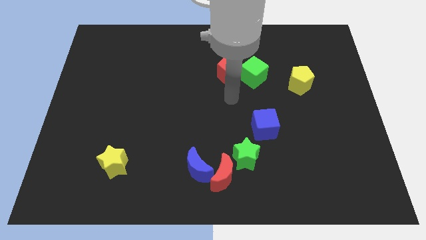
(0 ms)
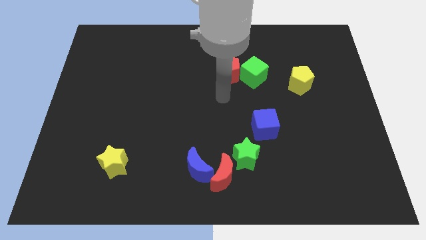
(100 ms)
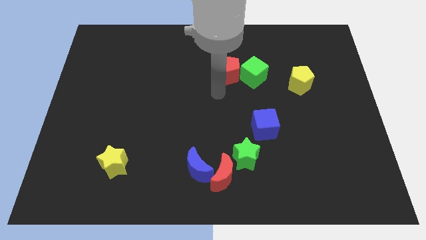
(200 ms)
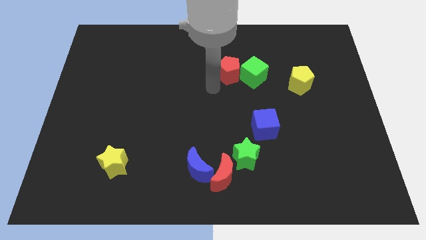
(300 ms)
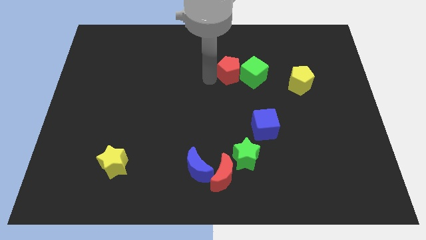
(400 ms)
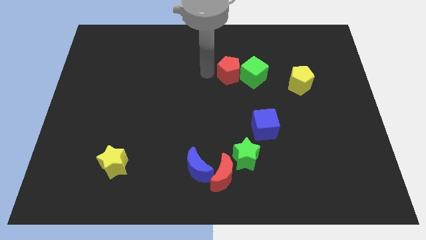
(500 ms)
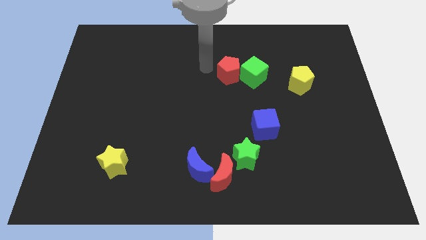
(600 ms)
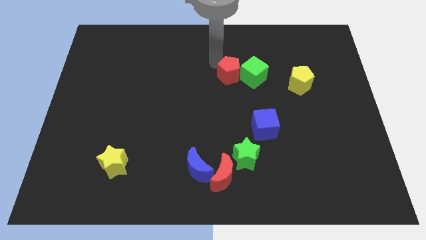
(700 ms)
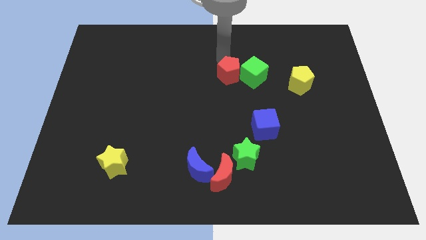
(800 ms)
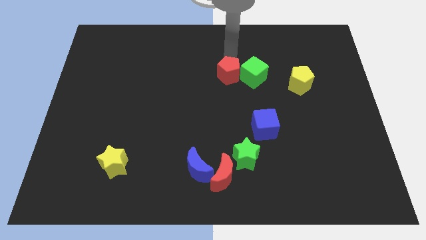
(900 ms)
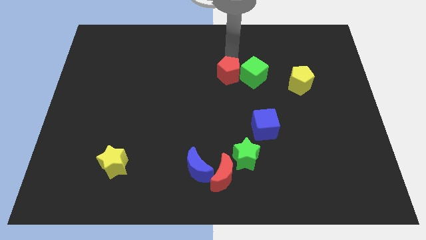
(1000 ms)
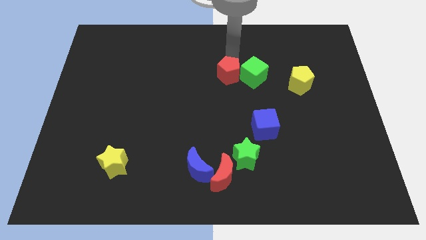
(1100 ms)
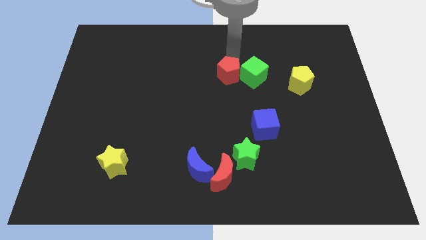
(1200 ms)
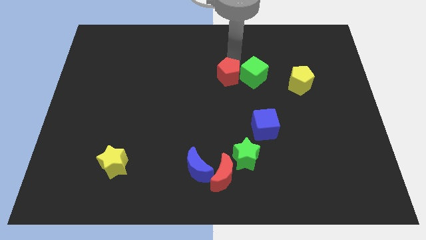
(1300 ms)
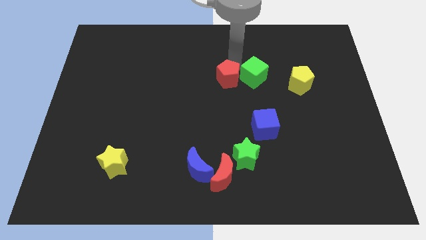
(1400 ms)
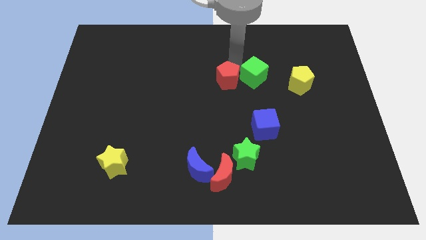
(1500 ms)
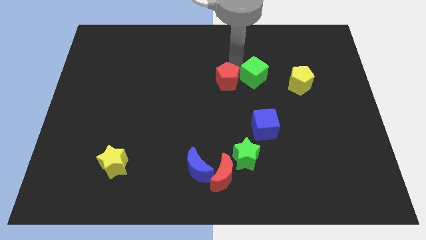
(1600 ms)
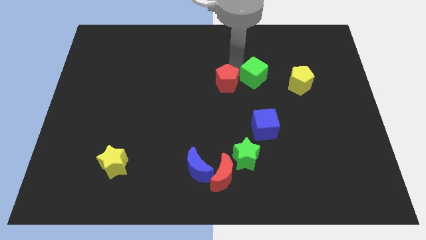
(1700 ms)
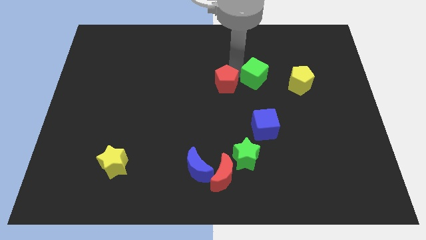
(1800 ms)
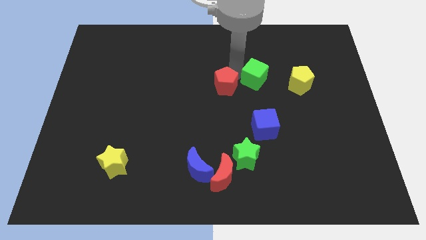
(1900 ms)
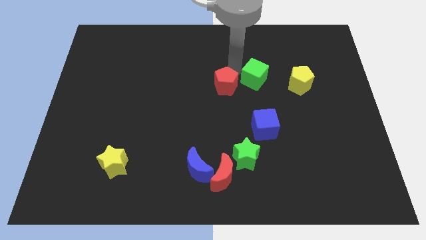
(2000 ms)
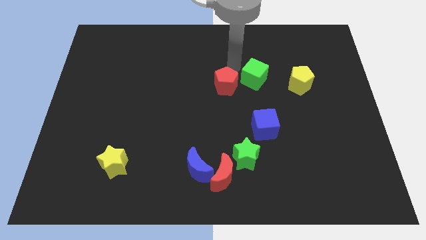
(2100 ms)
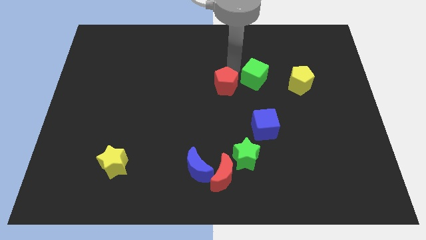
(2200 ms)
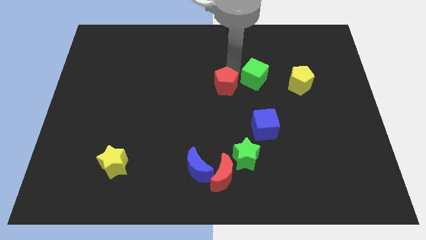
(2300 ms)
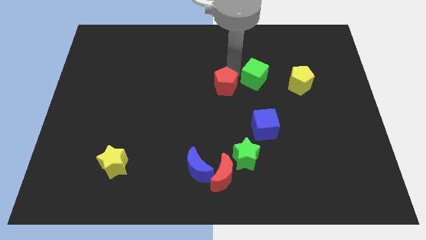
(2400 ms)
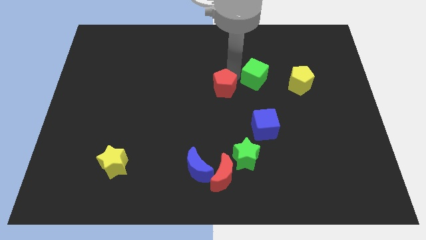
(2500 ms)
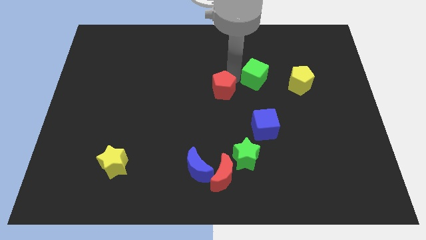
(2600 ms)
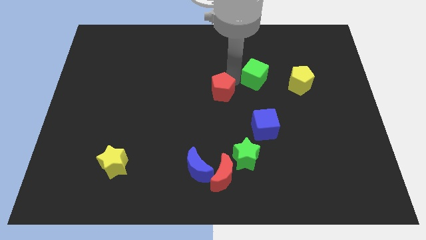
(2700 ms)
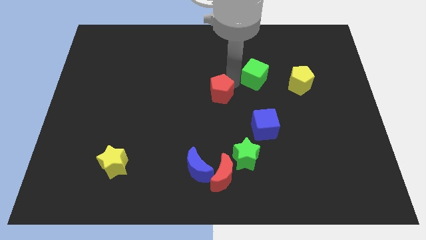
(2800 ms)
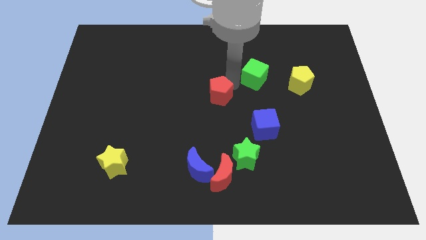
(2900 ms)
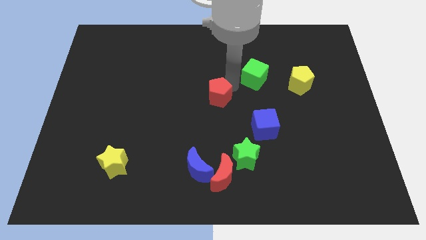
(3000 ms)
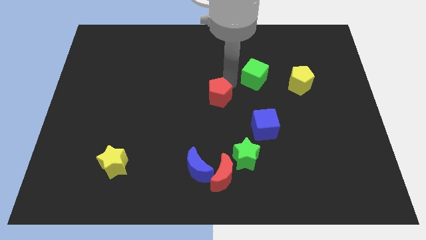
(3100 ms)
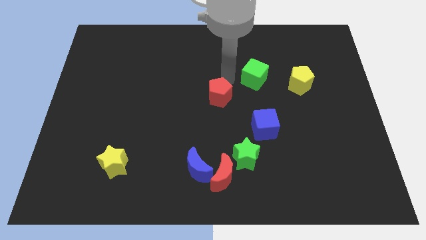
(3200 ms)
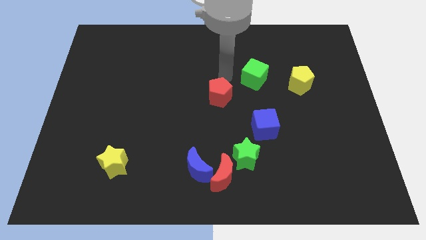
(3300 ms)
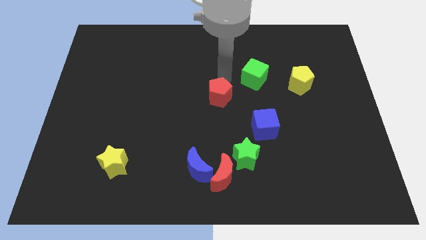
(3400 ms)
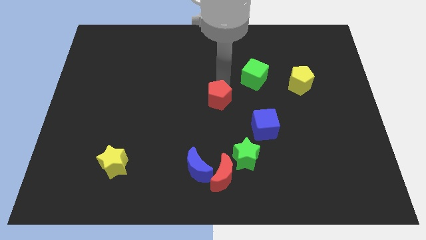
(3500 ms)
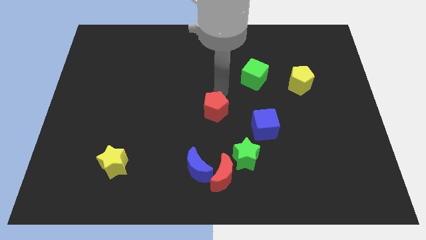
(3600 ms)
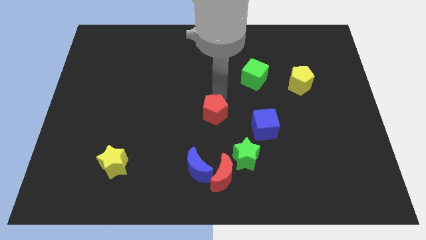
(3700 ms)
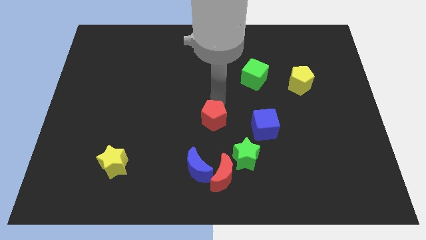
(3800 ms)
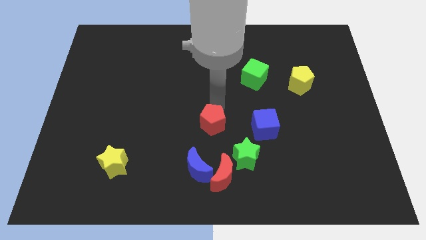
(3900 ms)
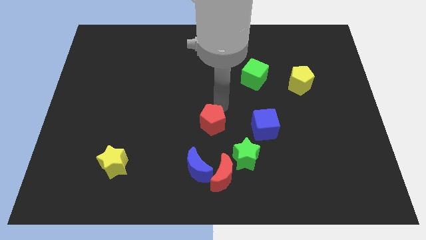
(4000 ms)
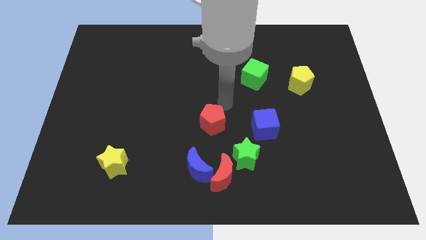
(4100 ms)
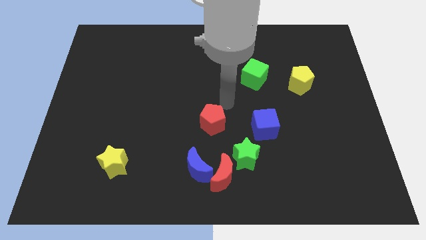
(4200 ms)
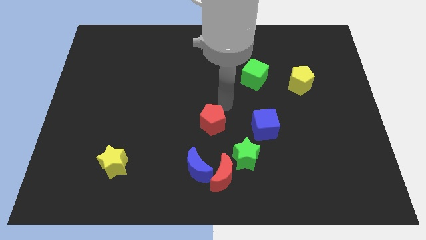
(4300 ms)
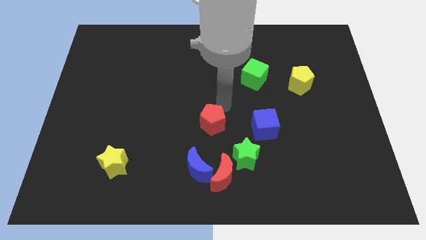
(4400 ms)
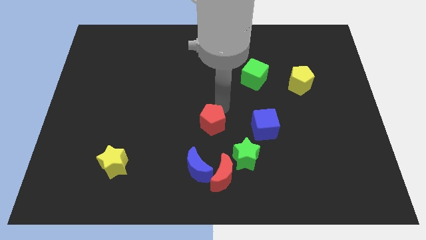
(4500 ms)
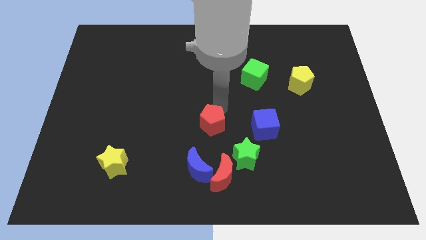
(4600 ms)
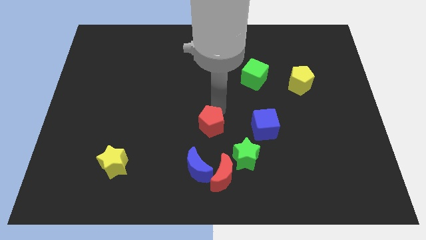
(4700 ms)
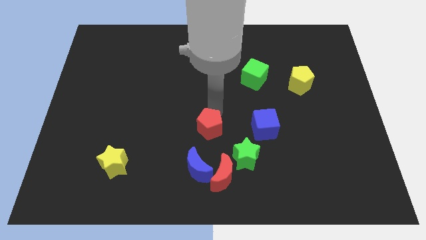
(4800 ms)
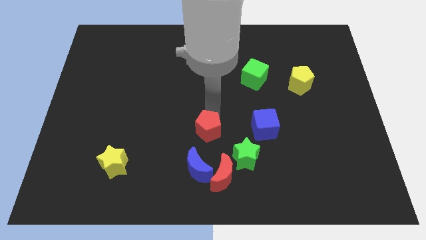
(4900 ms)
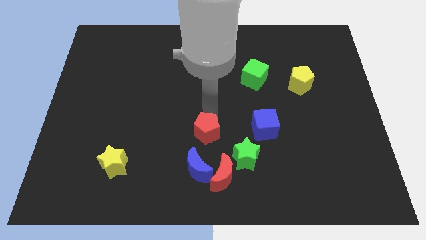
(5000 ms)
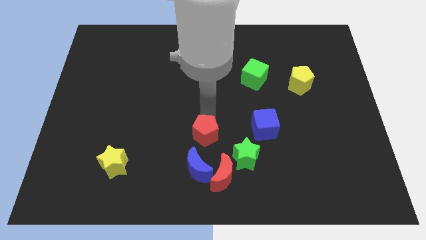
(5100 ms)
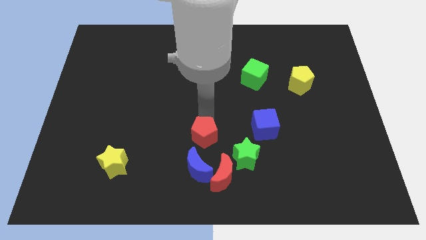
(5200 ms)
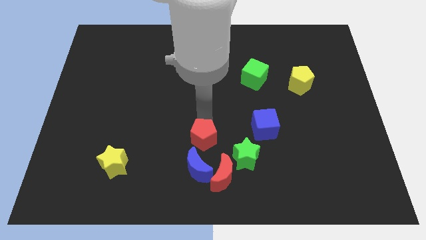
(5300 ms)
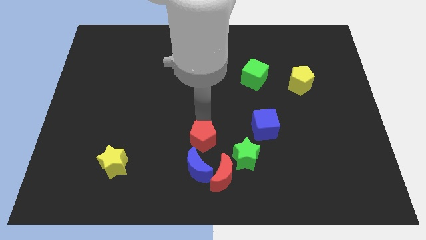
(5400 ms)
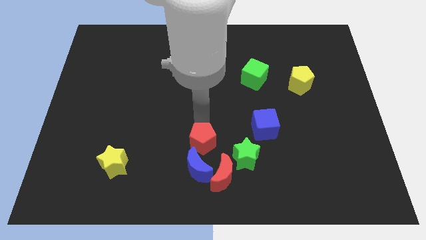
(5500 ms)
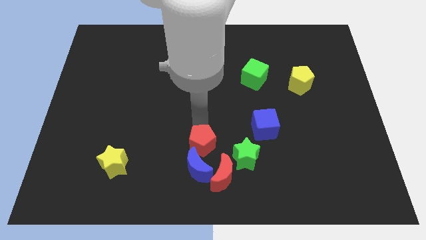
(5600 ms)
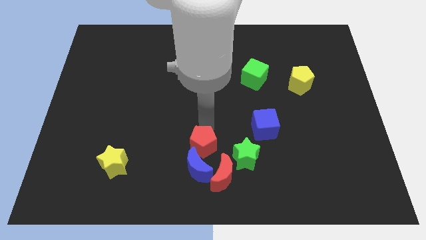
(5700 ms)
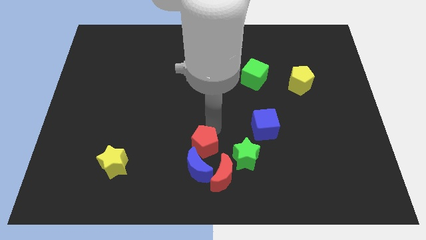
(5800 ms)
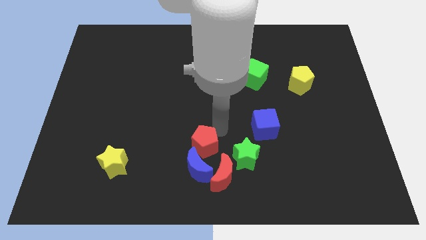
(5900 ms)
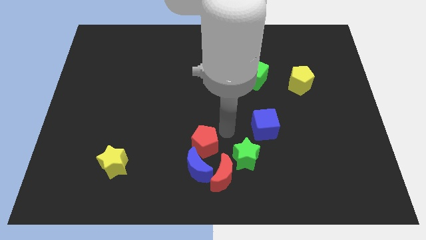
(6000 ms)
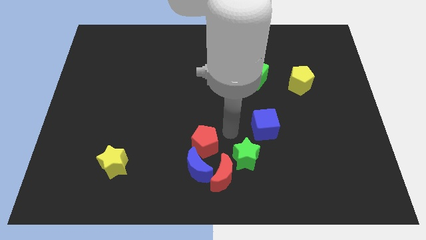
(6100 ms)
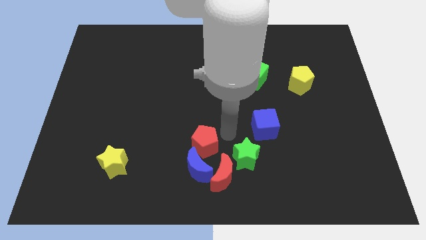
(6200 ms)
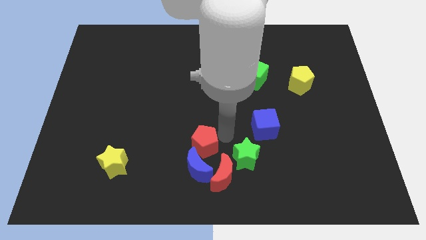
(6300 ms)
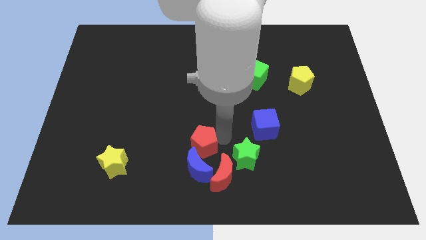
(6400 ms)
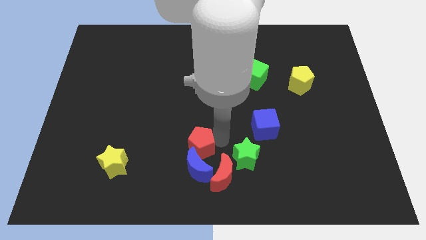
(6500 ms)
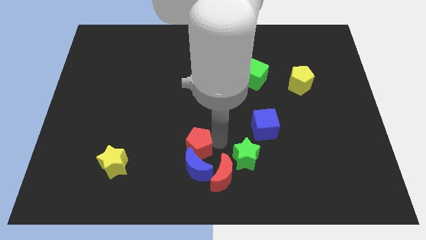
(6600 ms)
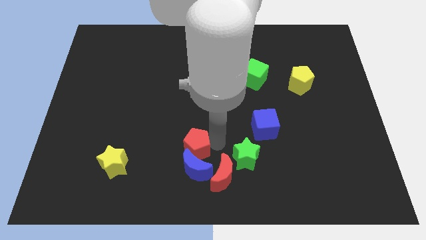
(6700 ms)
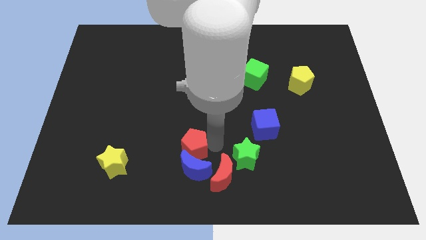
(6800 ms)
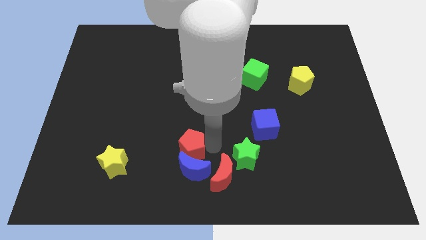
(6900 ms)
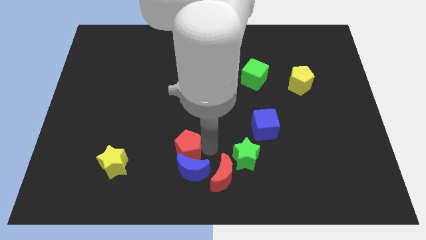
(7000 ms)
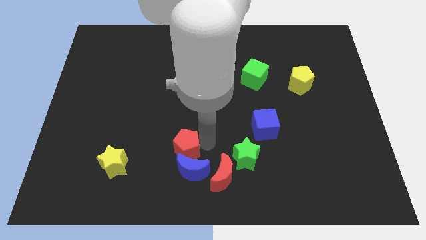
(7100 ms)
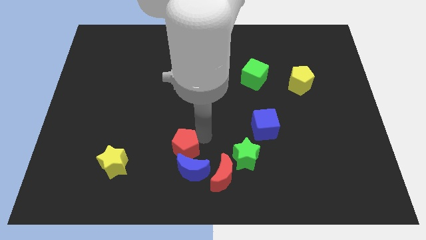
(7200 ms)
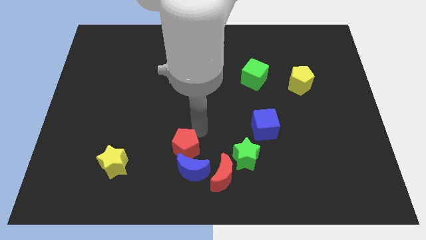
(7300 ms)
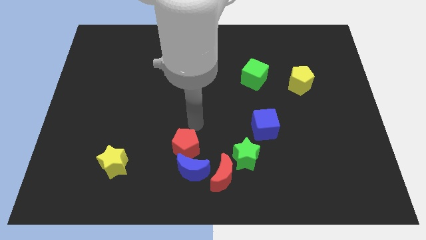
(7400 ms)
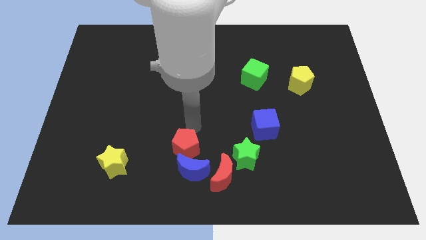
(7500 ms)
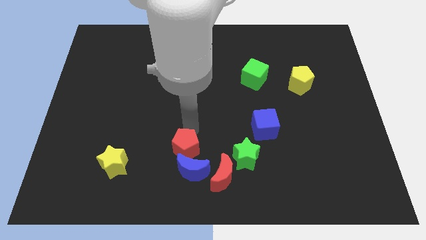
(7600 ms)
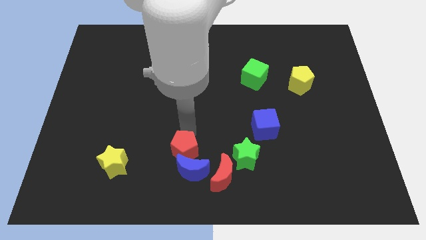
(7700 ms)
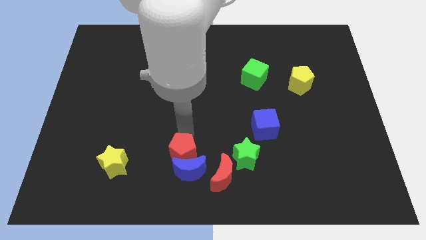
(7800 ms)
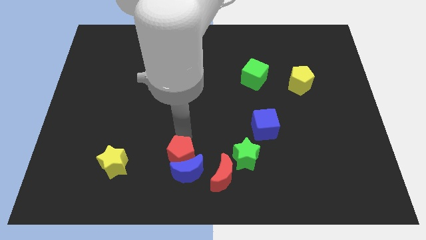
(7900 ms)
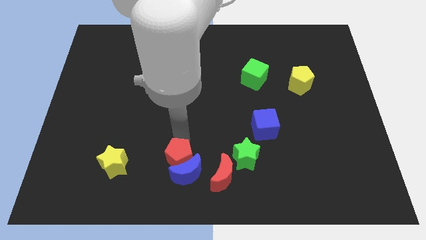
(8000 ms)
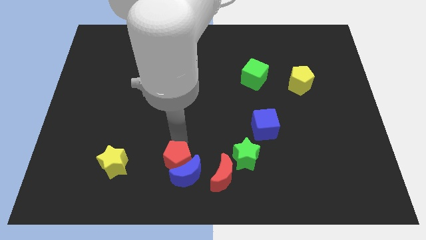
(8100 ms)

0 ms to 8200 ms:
move the red pentagon to the bottom
